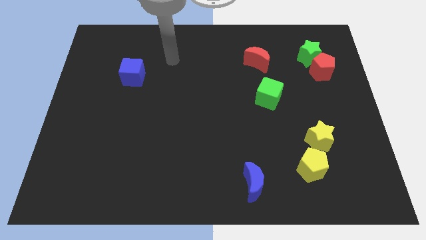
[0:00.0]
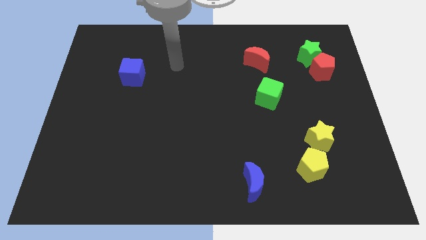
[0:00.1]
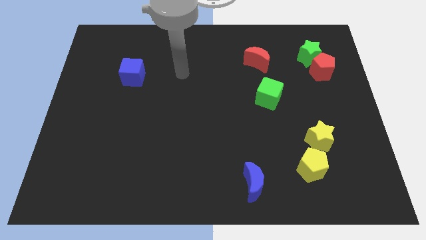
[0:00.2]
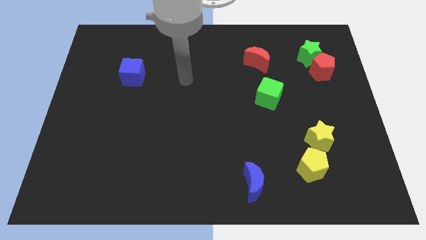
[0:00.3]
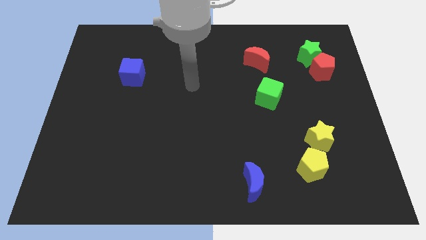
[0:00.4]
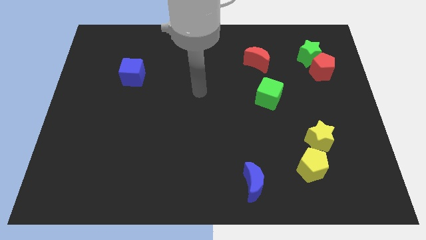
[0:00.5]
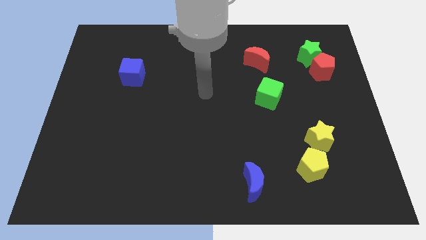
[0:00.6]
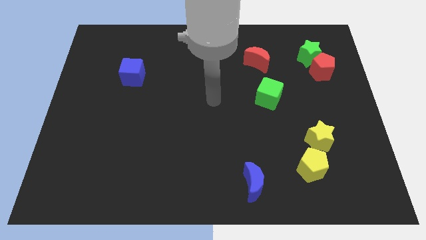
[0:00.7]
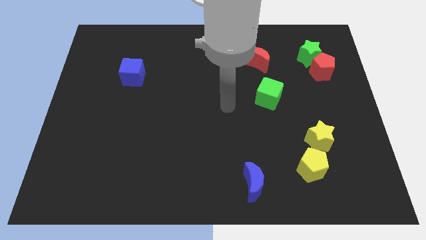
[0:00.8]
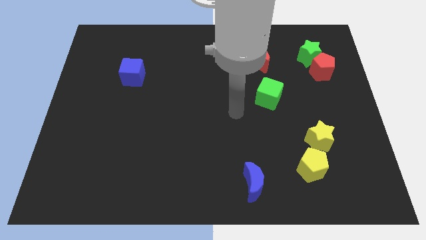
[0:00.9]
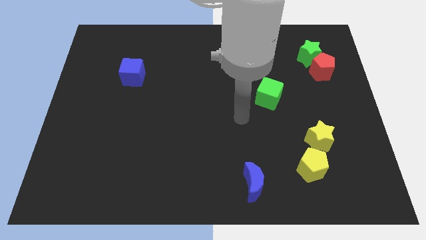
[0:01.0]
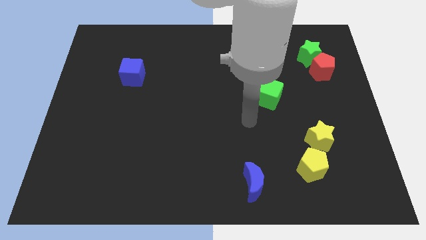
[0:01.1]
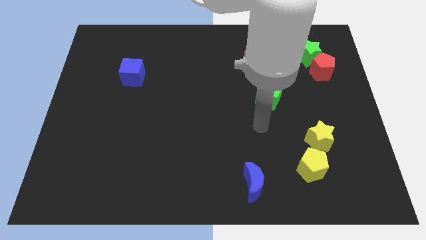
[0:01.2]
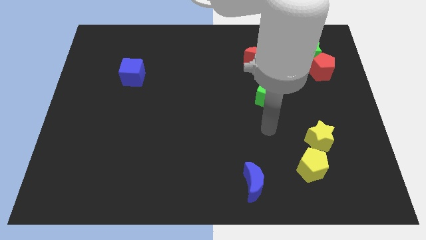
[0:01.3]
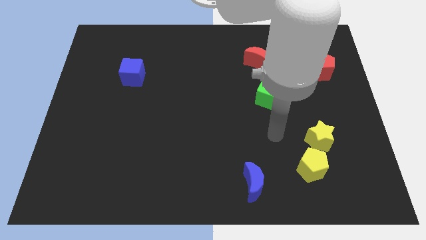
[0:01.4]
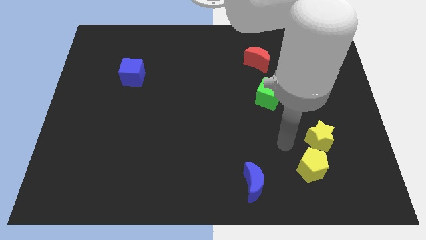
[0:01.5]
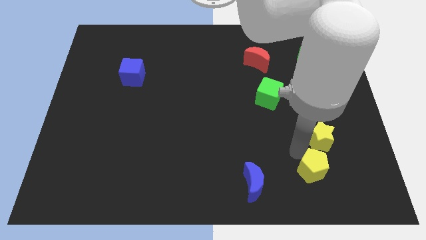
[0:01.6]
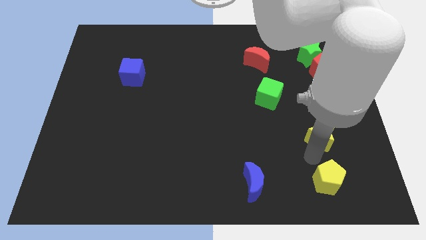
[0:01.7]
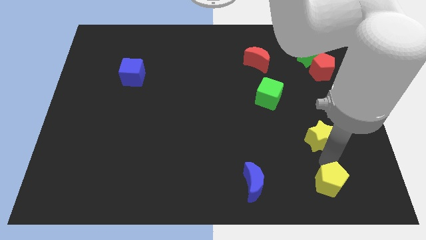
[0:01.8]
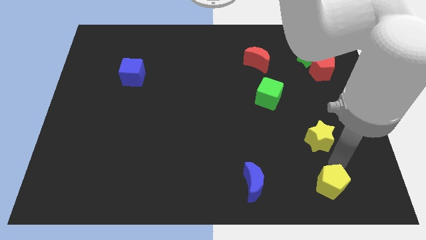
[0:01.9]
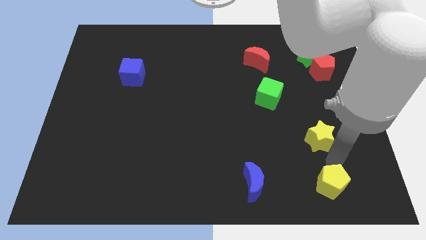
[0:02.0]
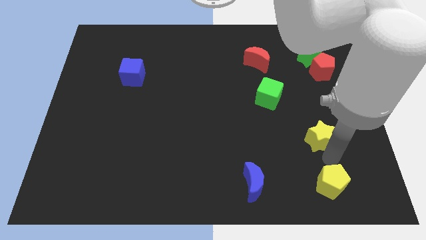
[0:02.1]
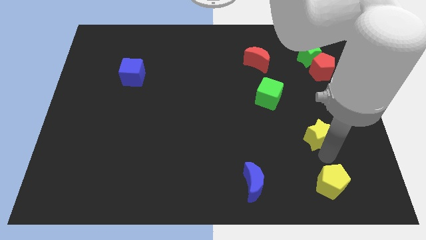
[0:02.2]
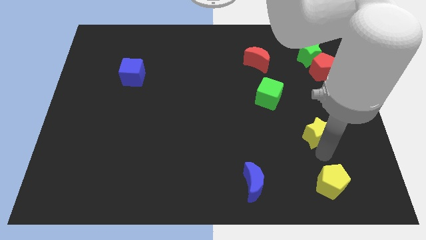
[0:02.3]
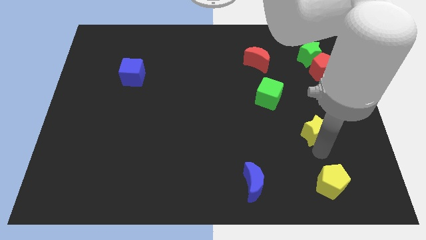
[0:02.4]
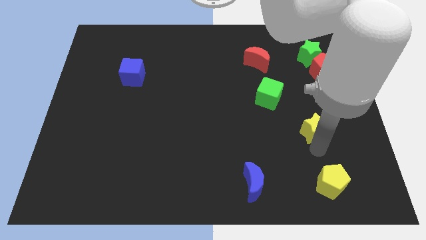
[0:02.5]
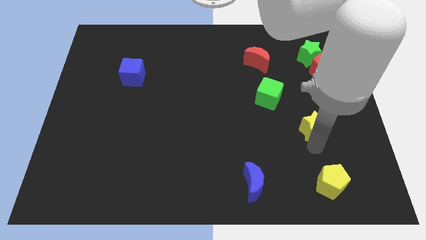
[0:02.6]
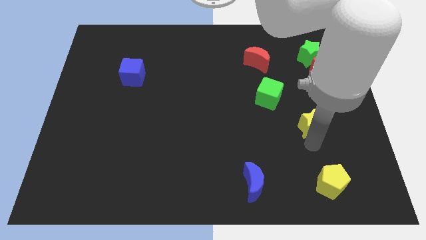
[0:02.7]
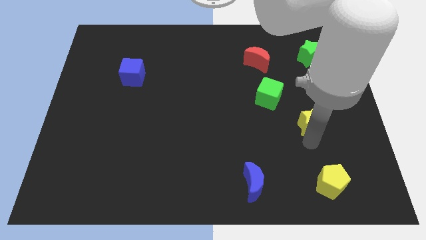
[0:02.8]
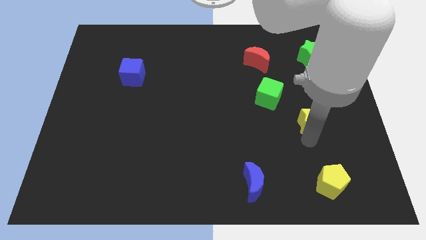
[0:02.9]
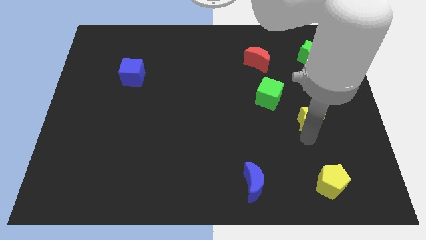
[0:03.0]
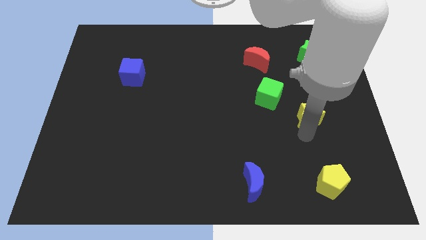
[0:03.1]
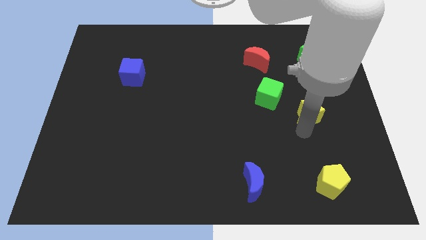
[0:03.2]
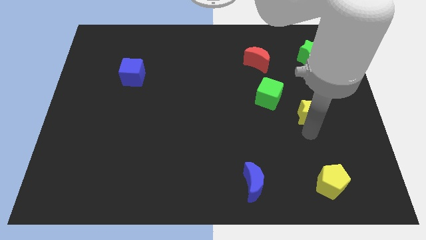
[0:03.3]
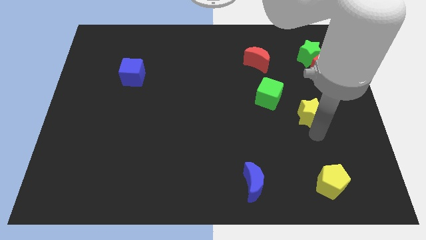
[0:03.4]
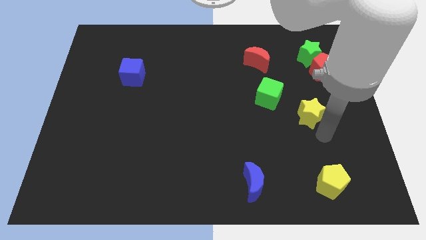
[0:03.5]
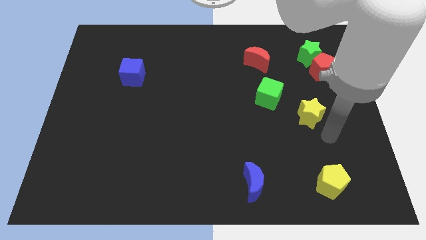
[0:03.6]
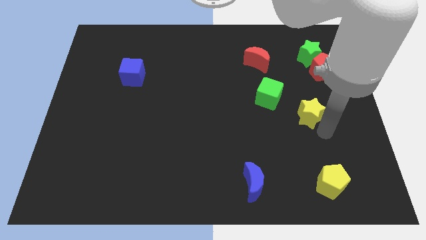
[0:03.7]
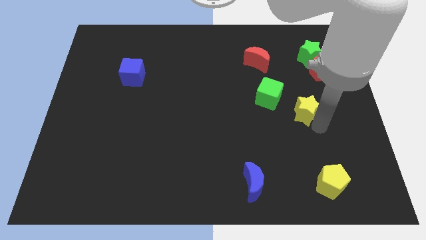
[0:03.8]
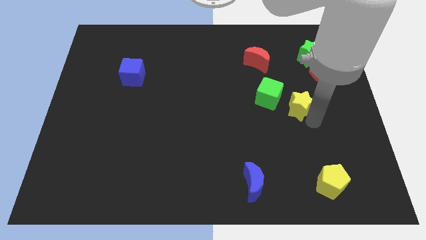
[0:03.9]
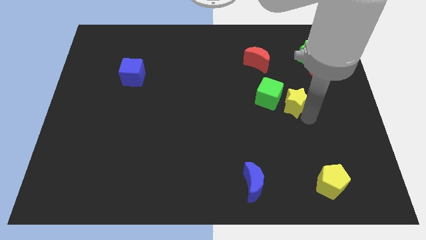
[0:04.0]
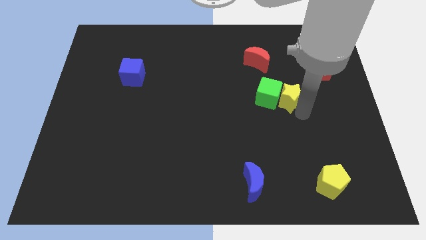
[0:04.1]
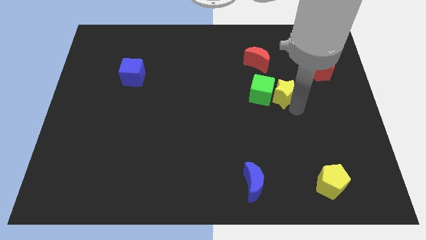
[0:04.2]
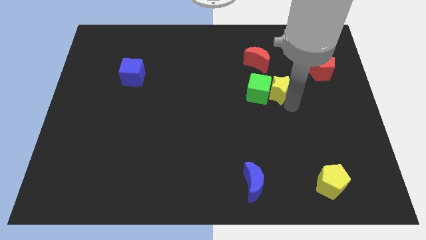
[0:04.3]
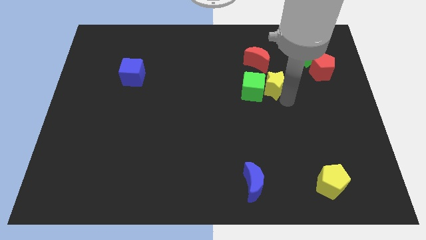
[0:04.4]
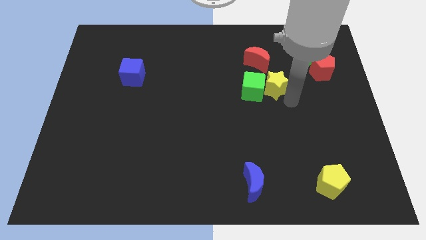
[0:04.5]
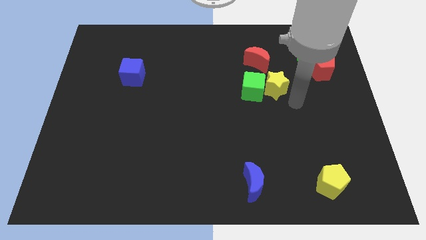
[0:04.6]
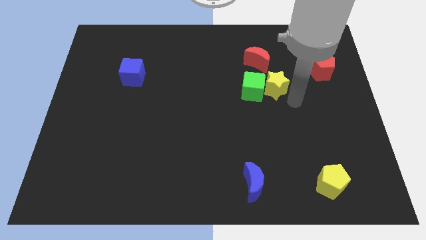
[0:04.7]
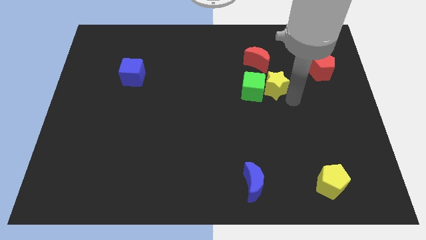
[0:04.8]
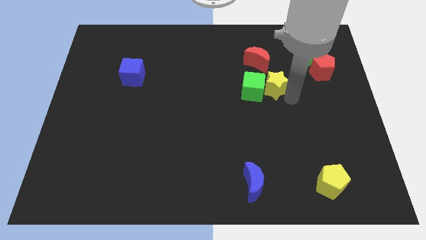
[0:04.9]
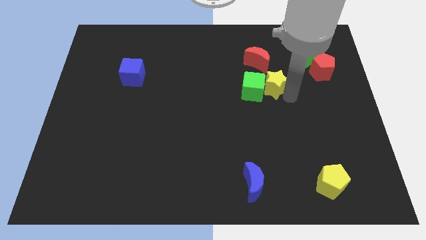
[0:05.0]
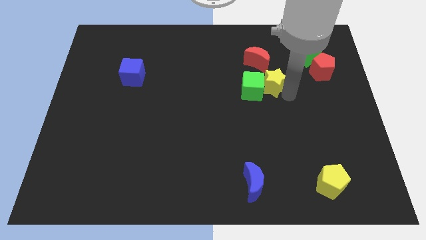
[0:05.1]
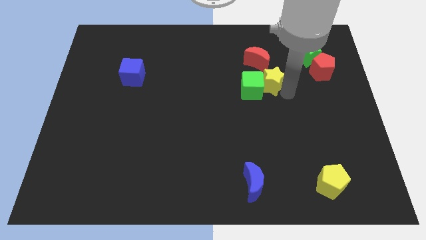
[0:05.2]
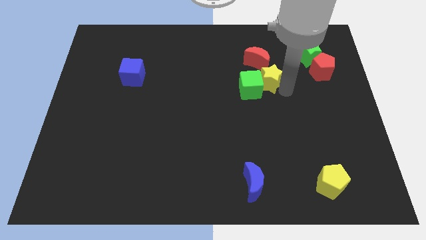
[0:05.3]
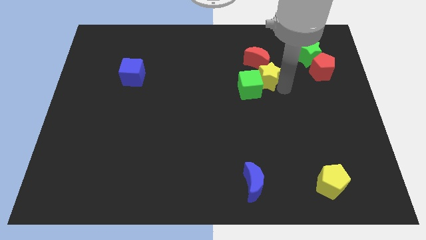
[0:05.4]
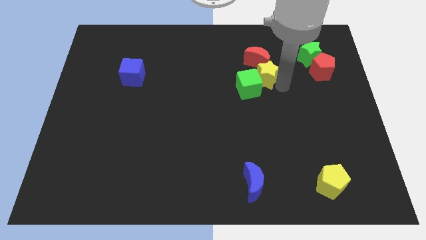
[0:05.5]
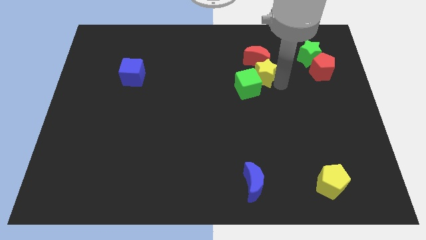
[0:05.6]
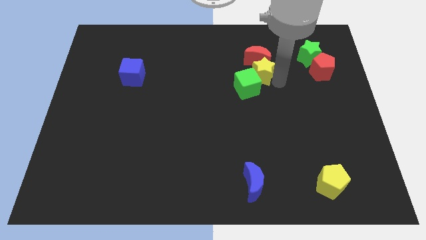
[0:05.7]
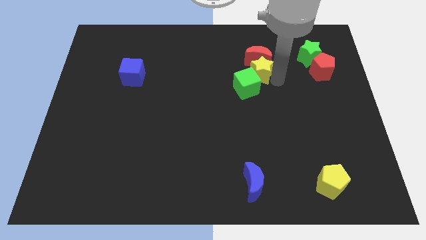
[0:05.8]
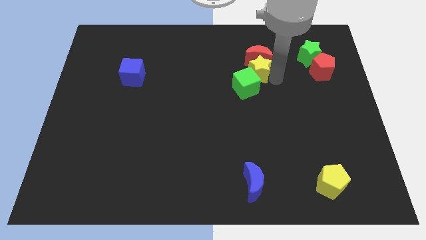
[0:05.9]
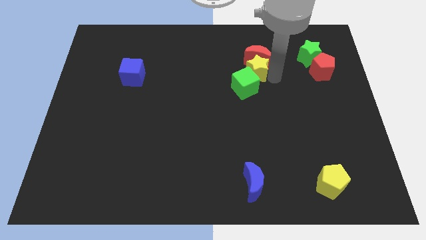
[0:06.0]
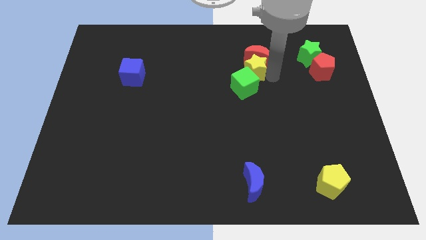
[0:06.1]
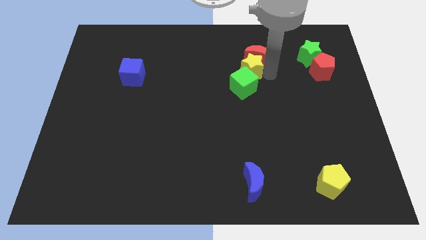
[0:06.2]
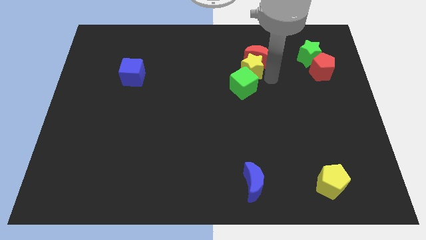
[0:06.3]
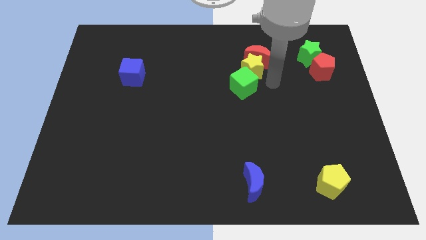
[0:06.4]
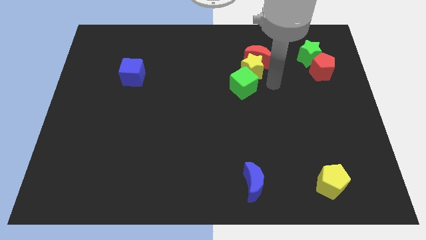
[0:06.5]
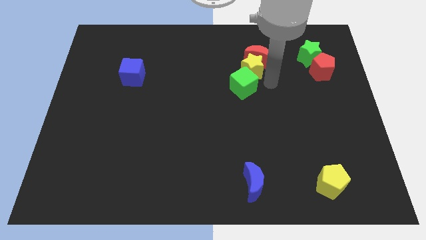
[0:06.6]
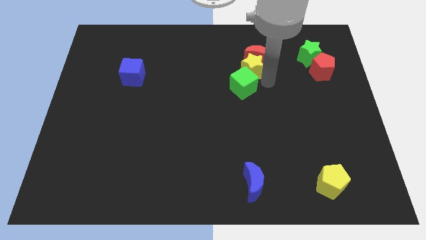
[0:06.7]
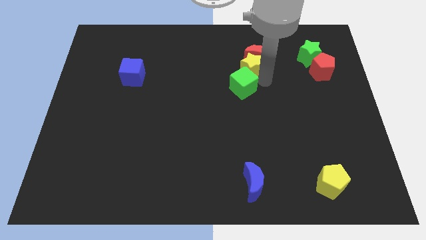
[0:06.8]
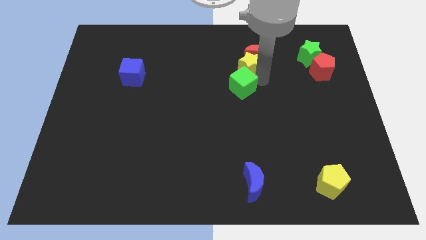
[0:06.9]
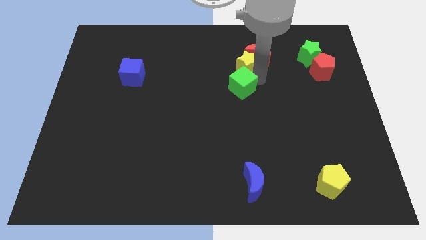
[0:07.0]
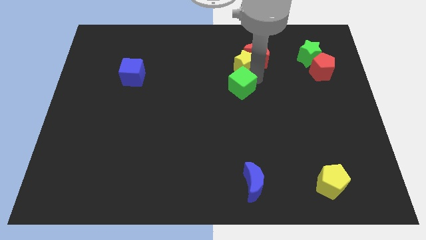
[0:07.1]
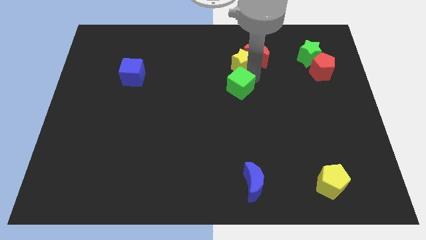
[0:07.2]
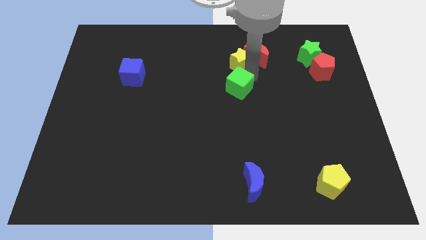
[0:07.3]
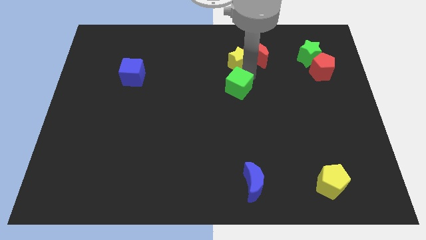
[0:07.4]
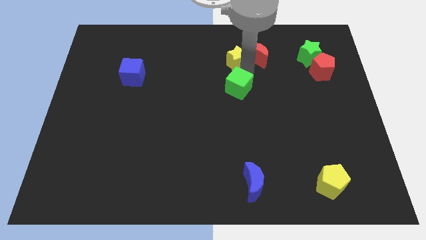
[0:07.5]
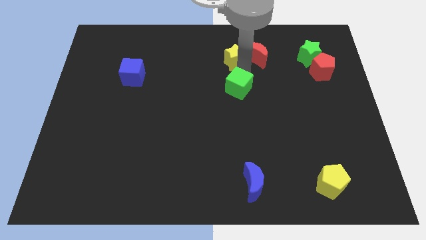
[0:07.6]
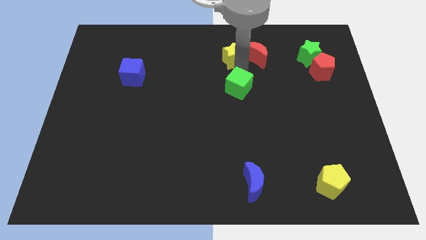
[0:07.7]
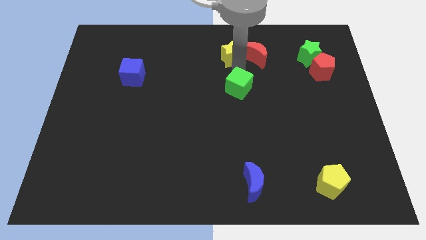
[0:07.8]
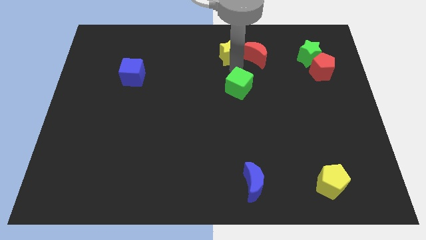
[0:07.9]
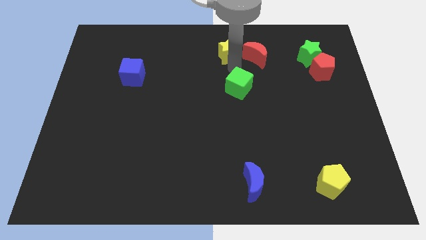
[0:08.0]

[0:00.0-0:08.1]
slide the yellow star to the top side
